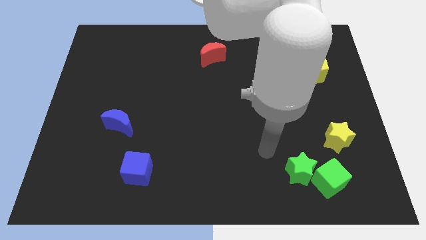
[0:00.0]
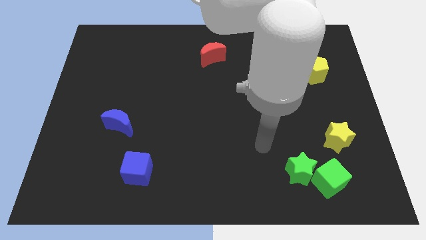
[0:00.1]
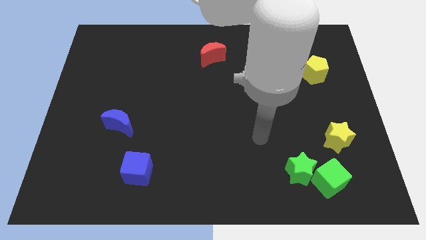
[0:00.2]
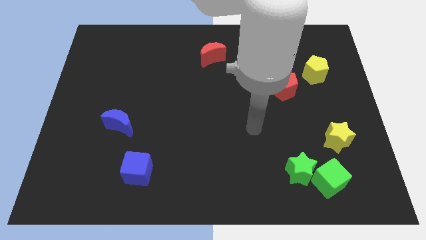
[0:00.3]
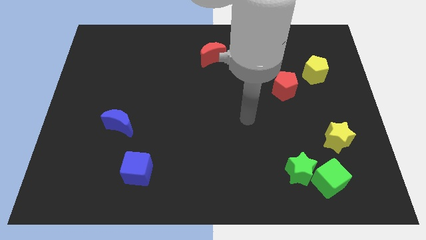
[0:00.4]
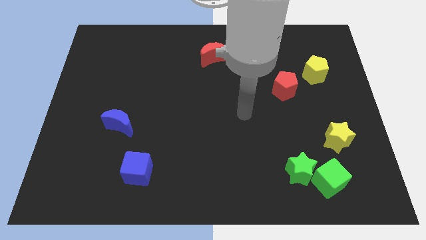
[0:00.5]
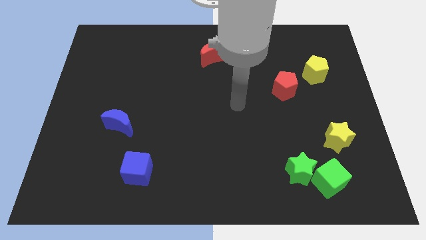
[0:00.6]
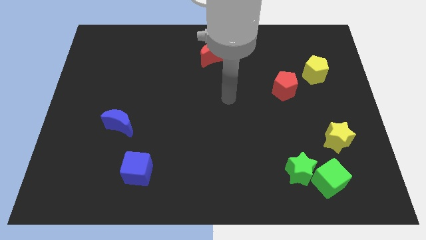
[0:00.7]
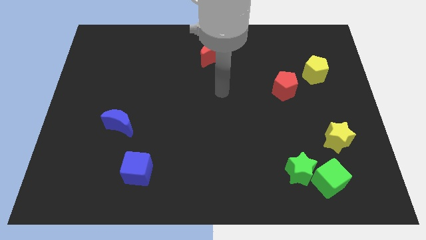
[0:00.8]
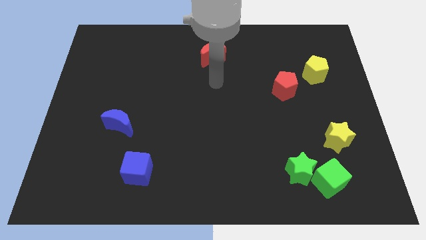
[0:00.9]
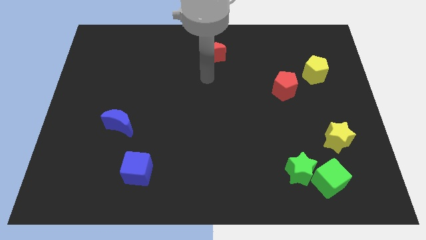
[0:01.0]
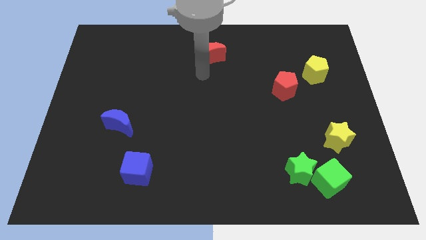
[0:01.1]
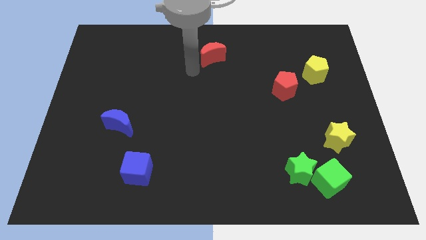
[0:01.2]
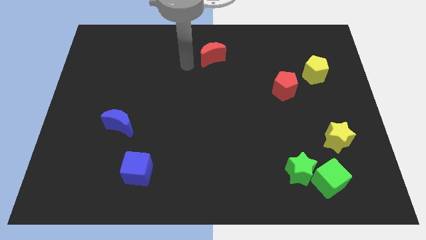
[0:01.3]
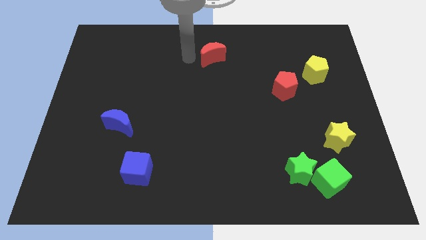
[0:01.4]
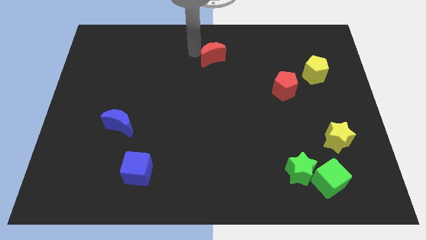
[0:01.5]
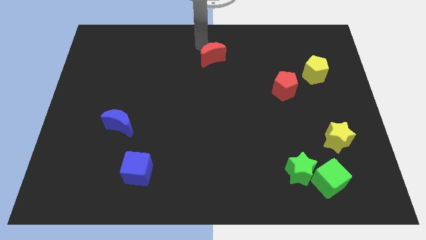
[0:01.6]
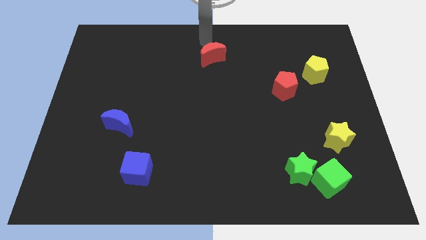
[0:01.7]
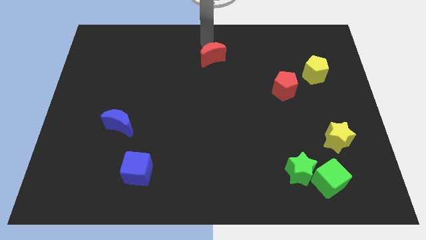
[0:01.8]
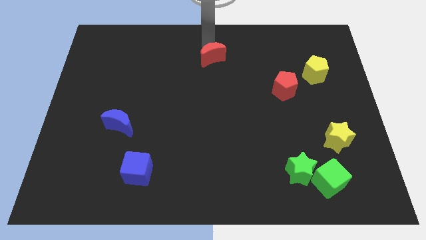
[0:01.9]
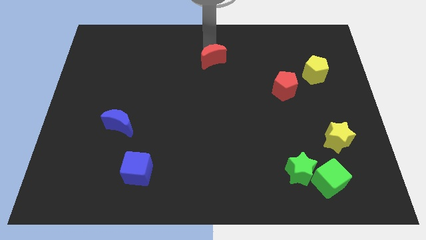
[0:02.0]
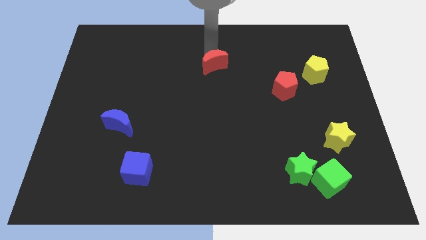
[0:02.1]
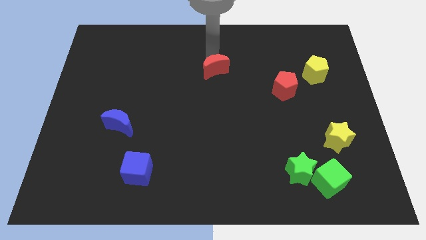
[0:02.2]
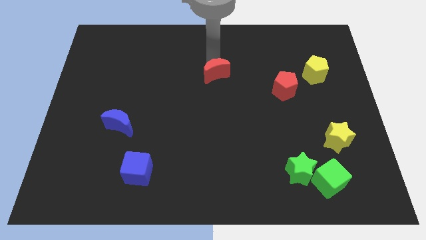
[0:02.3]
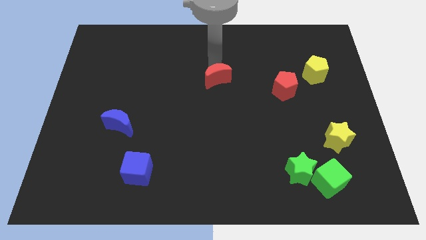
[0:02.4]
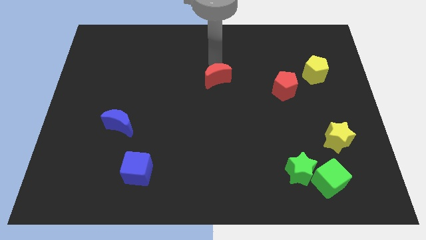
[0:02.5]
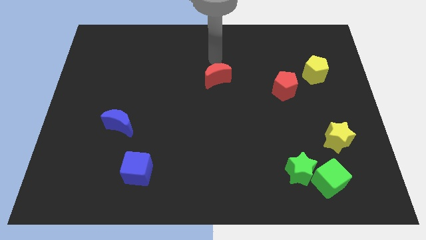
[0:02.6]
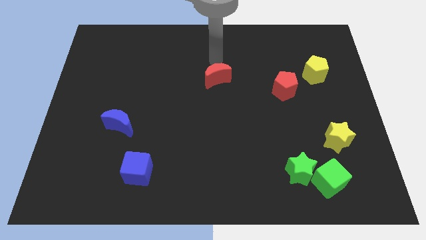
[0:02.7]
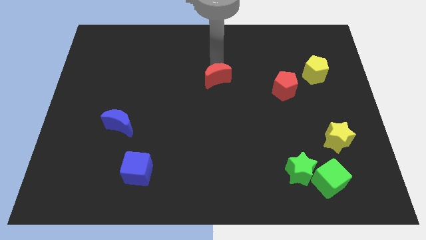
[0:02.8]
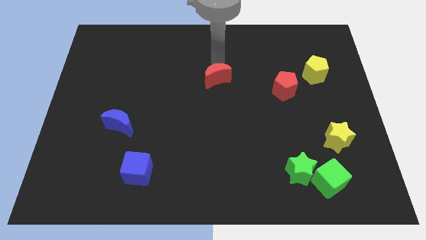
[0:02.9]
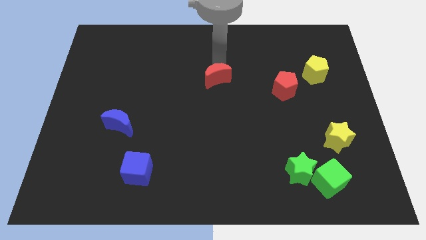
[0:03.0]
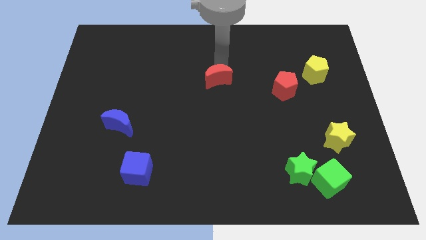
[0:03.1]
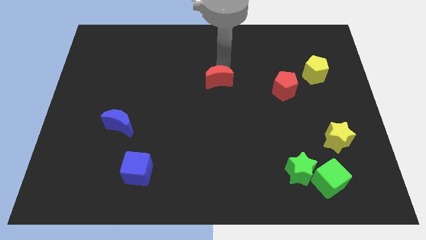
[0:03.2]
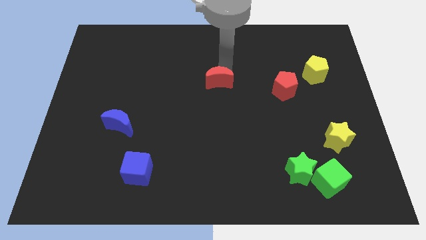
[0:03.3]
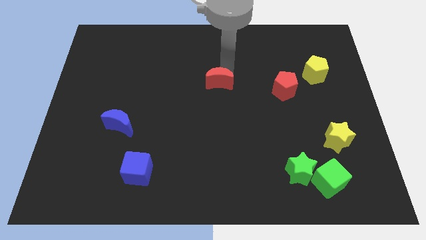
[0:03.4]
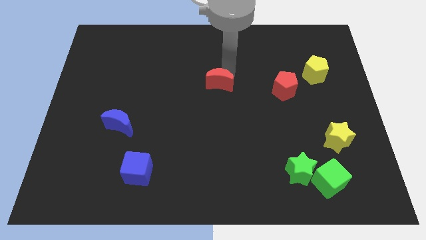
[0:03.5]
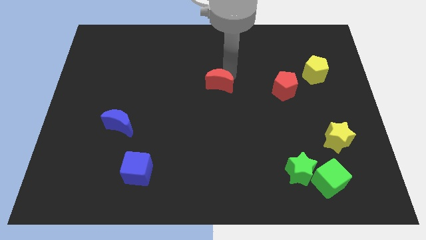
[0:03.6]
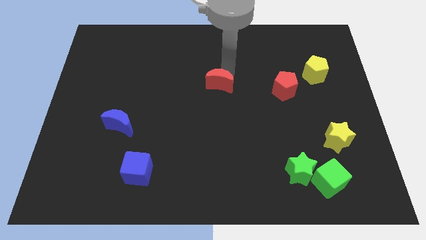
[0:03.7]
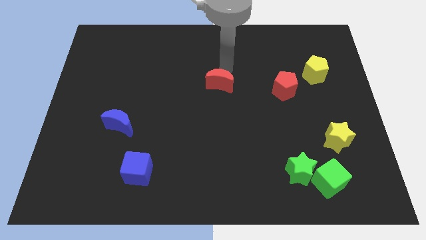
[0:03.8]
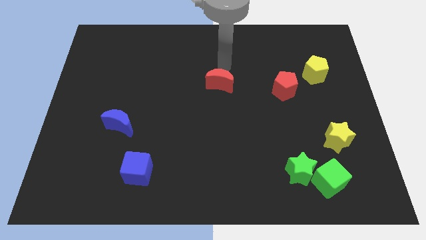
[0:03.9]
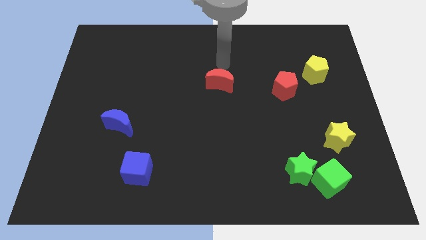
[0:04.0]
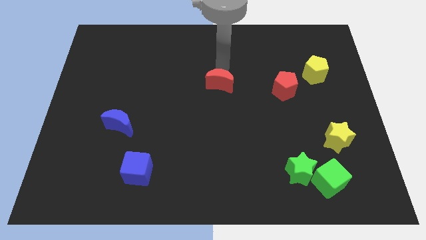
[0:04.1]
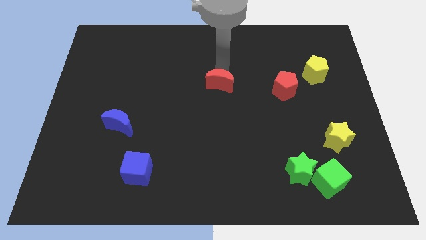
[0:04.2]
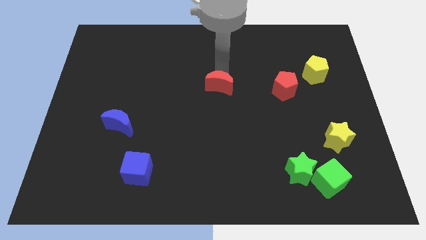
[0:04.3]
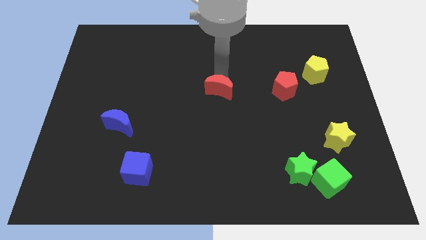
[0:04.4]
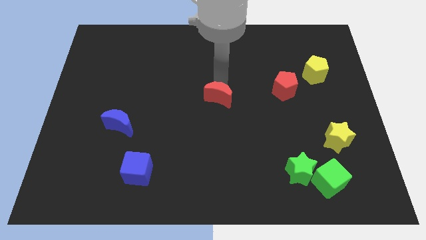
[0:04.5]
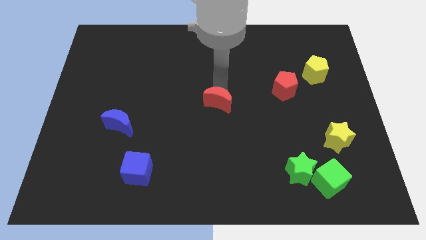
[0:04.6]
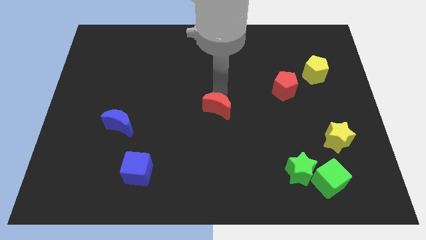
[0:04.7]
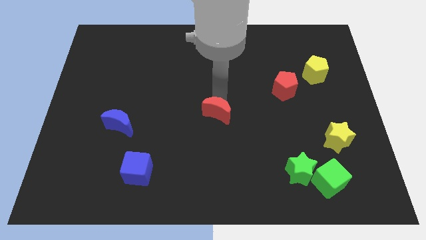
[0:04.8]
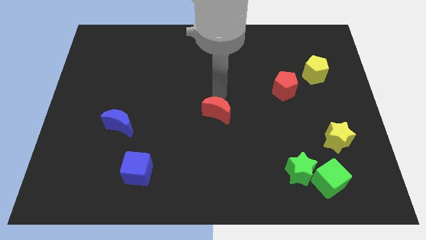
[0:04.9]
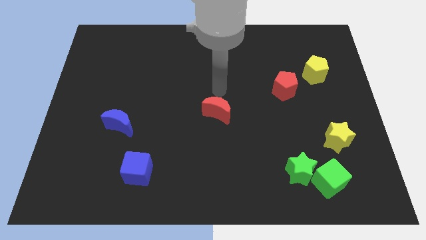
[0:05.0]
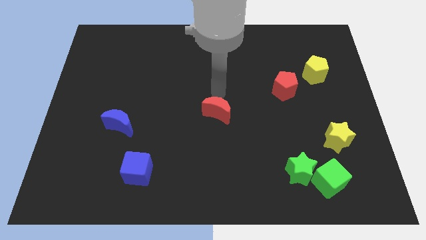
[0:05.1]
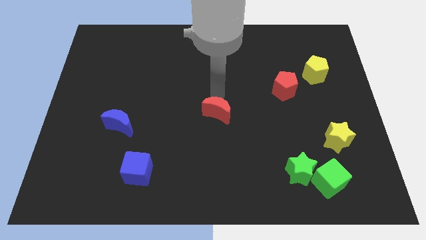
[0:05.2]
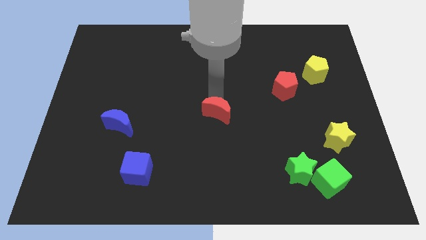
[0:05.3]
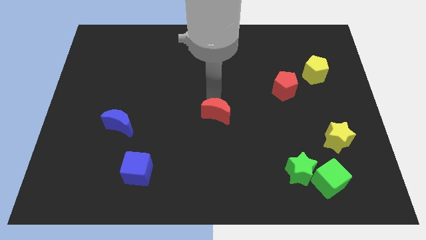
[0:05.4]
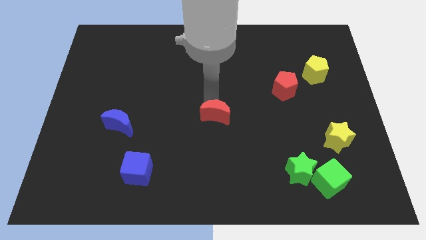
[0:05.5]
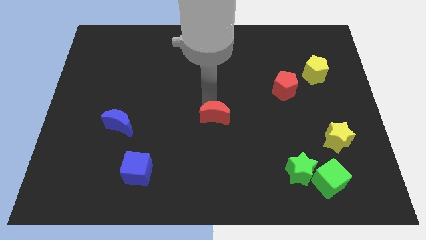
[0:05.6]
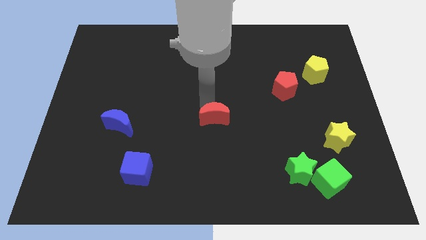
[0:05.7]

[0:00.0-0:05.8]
move the red moon downwards

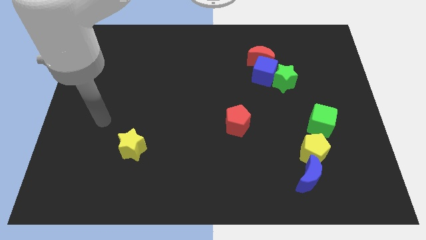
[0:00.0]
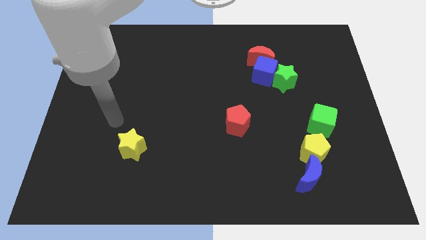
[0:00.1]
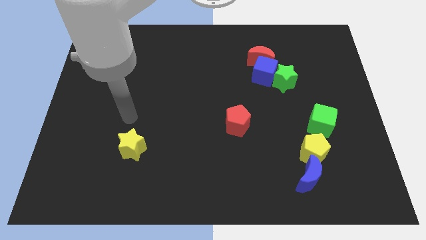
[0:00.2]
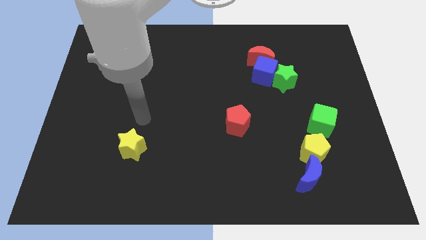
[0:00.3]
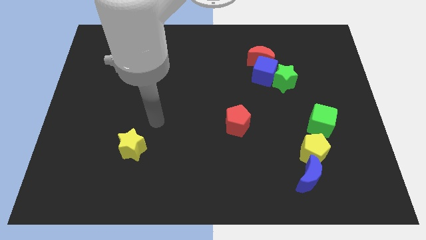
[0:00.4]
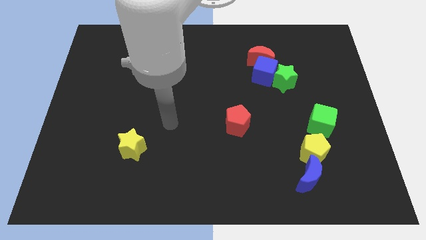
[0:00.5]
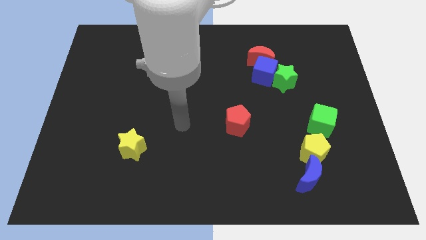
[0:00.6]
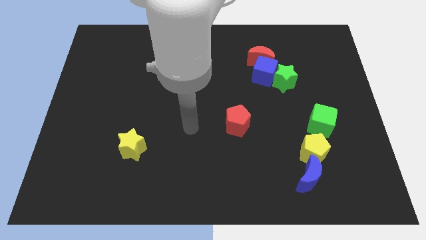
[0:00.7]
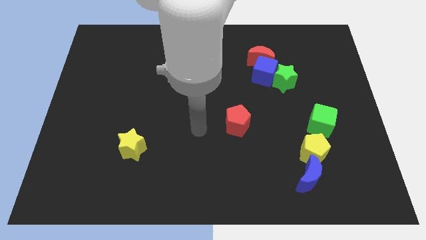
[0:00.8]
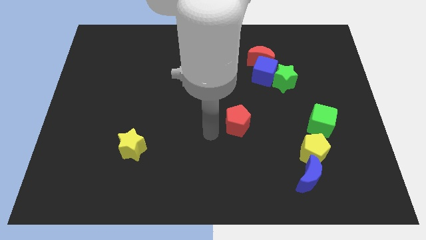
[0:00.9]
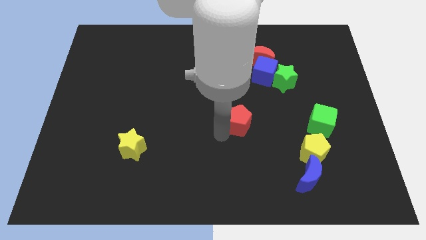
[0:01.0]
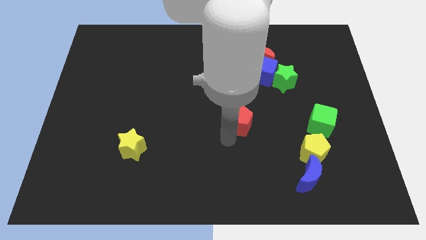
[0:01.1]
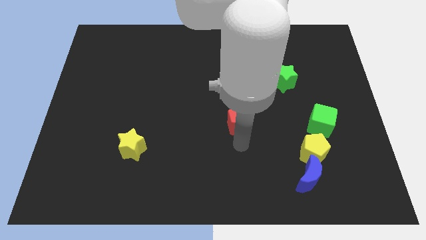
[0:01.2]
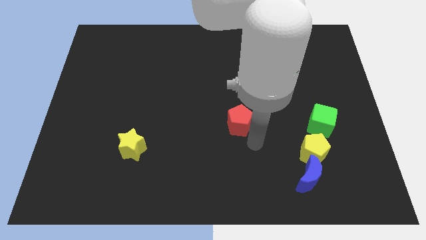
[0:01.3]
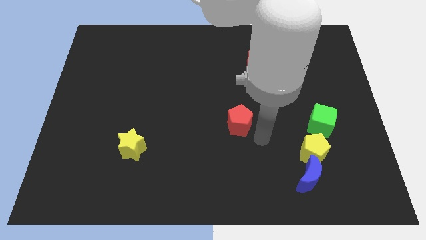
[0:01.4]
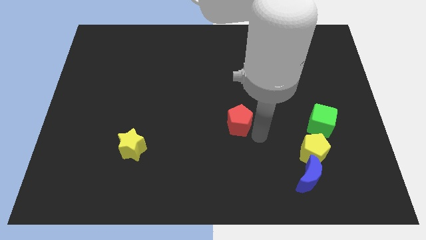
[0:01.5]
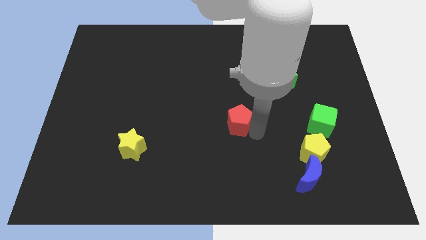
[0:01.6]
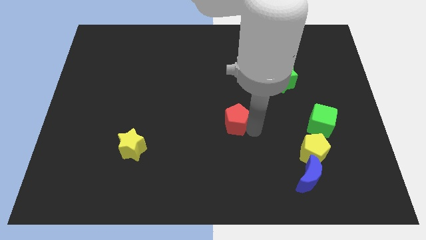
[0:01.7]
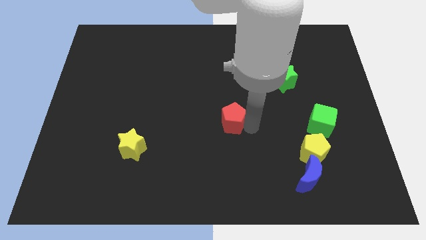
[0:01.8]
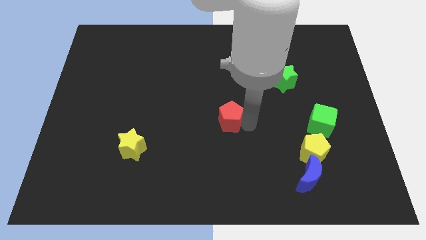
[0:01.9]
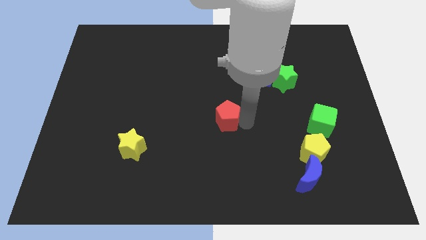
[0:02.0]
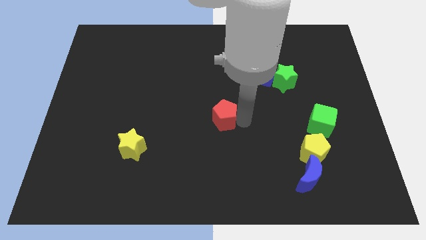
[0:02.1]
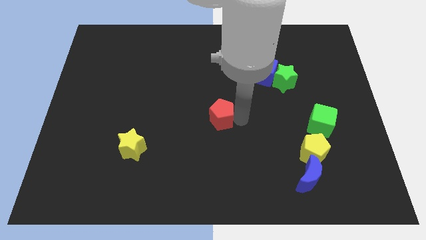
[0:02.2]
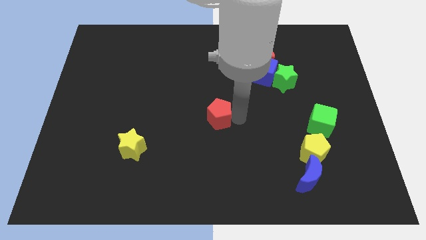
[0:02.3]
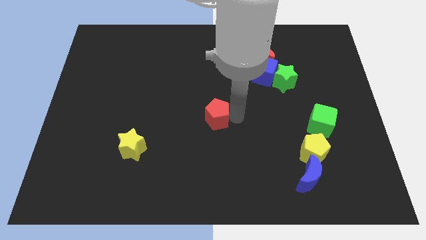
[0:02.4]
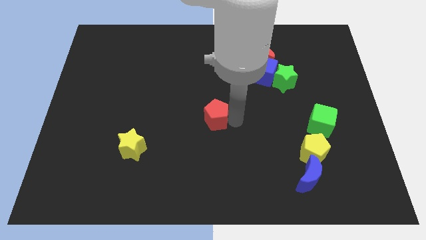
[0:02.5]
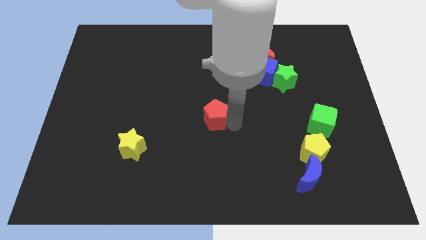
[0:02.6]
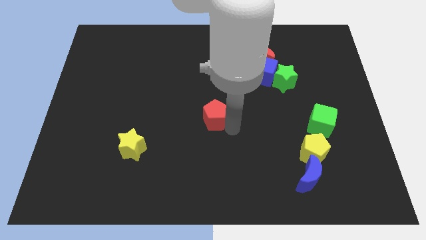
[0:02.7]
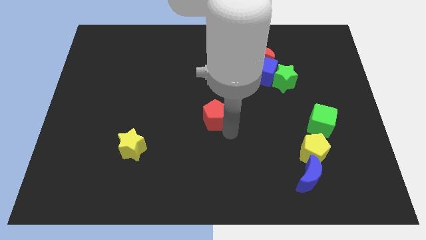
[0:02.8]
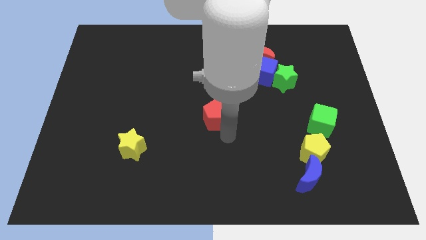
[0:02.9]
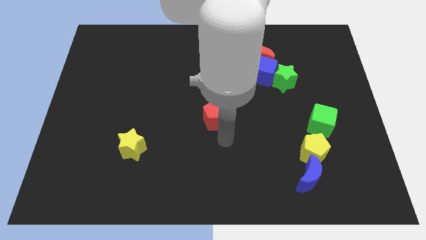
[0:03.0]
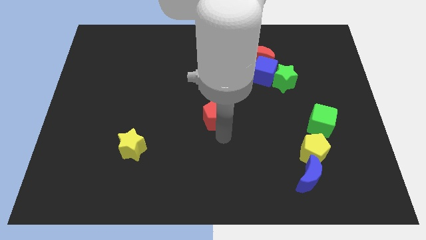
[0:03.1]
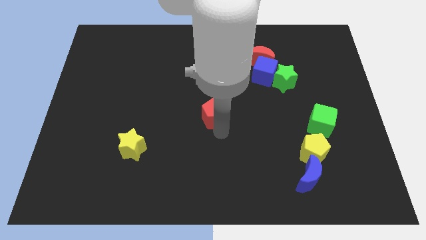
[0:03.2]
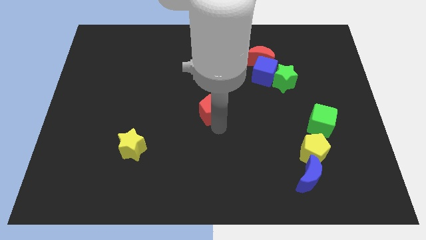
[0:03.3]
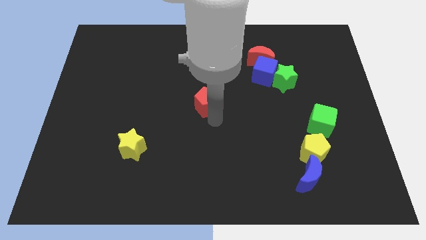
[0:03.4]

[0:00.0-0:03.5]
move the red pentagon upwards and to the left diagonally a little bit
